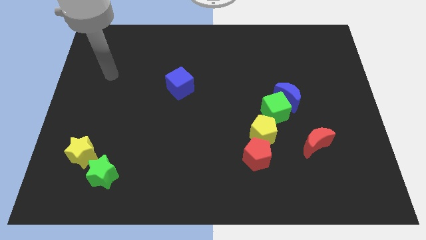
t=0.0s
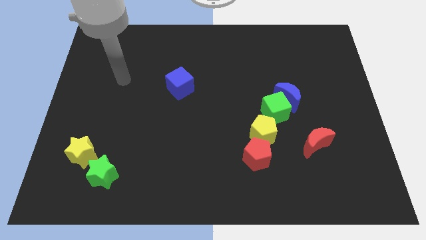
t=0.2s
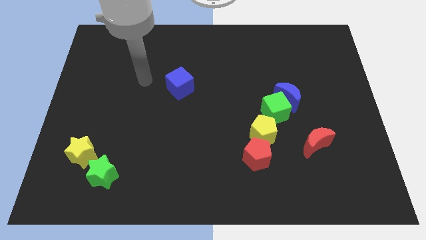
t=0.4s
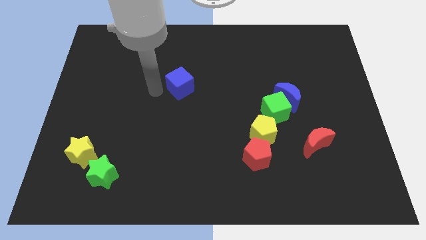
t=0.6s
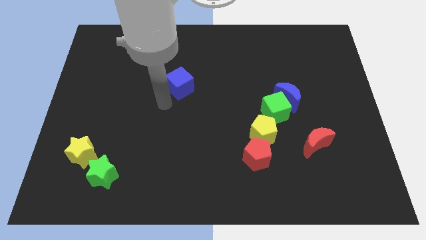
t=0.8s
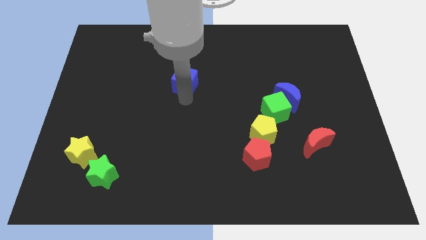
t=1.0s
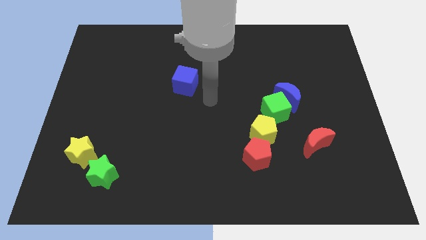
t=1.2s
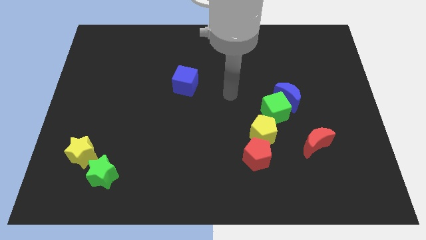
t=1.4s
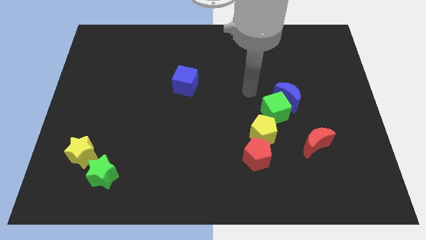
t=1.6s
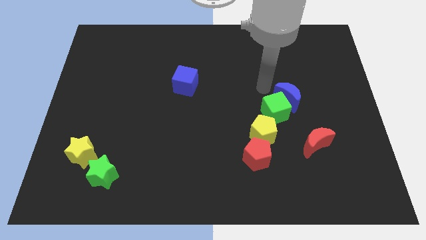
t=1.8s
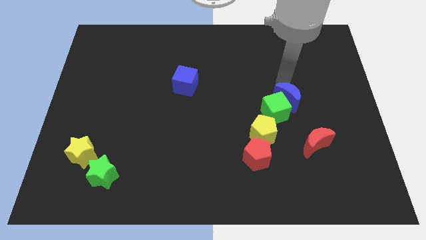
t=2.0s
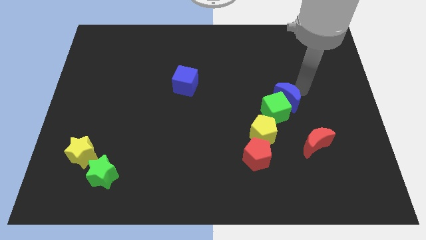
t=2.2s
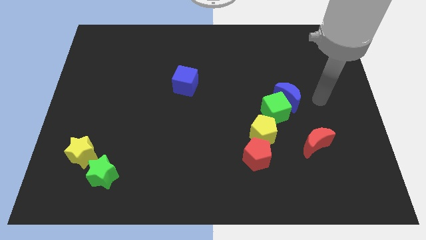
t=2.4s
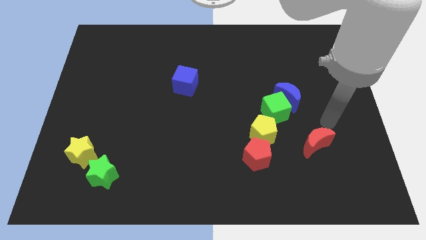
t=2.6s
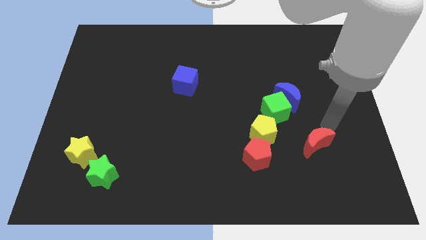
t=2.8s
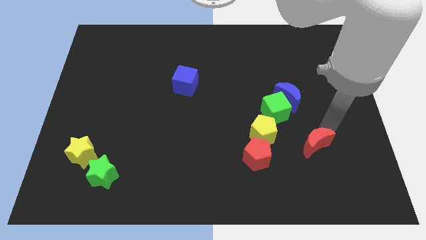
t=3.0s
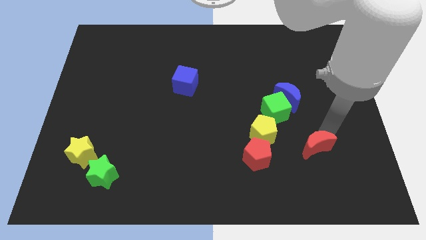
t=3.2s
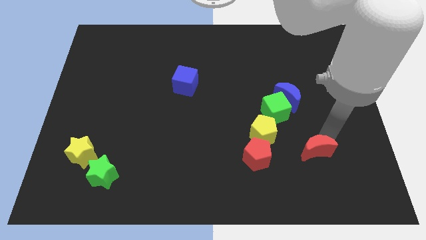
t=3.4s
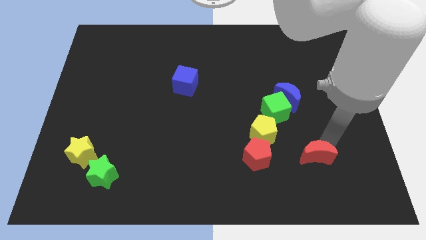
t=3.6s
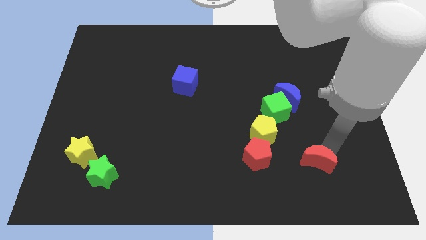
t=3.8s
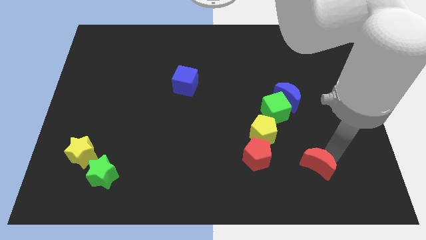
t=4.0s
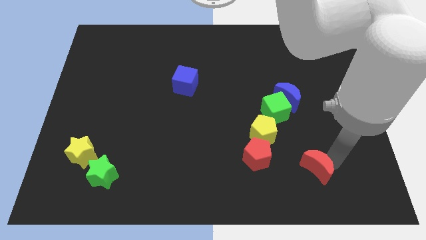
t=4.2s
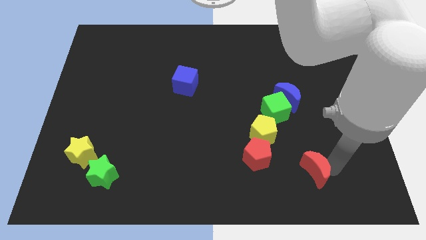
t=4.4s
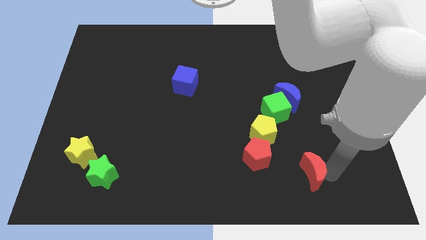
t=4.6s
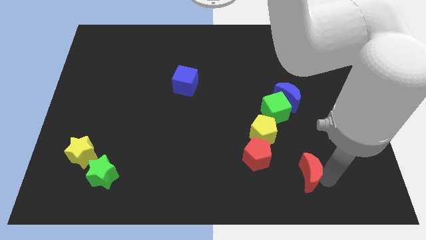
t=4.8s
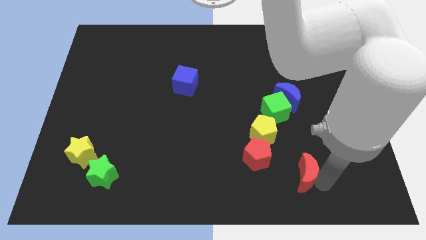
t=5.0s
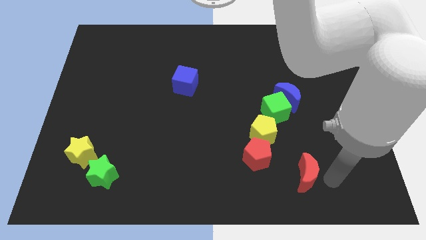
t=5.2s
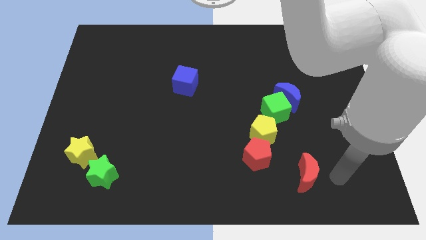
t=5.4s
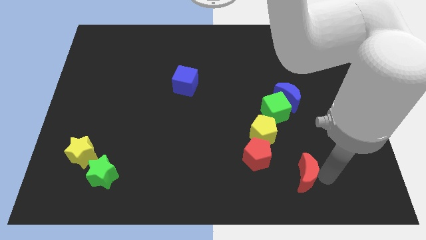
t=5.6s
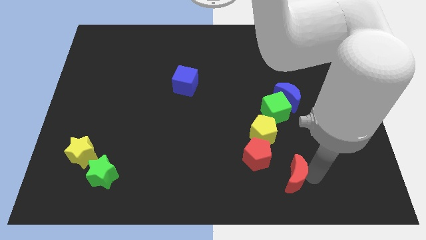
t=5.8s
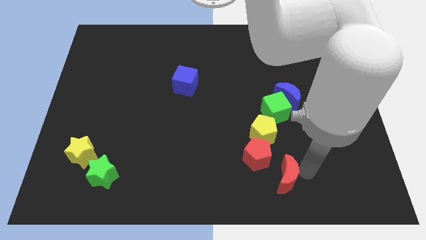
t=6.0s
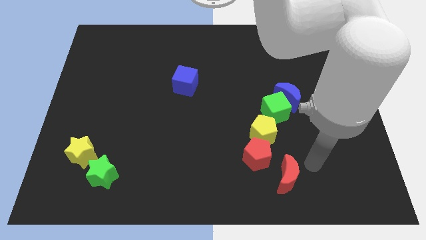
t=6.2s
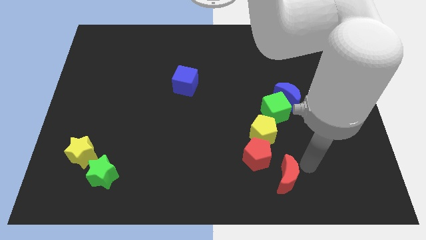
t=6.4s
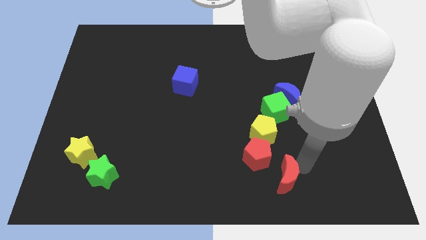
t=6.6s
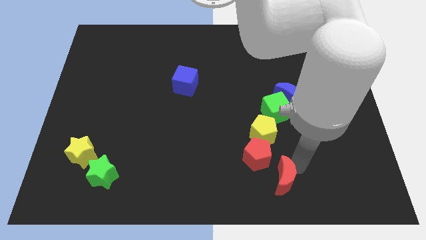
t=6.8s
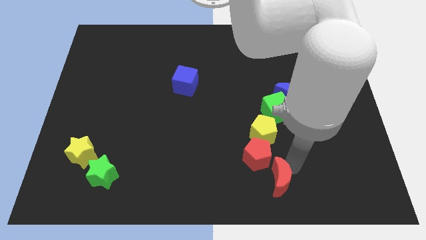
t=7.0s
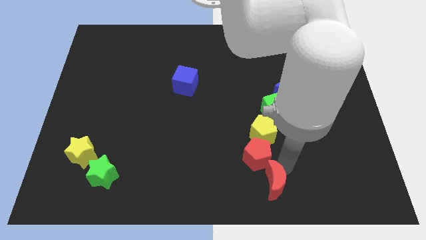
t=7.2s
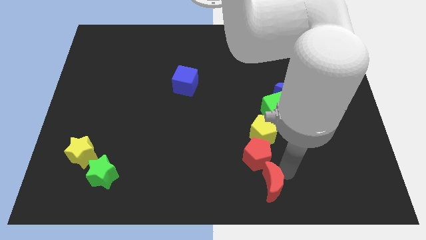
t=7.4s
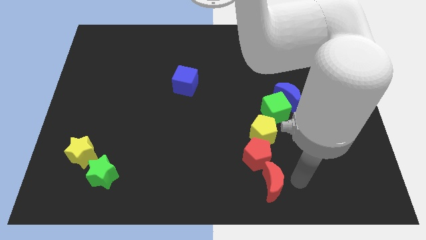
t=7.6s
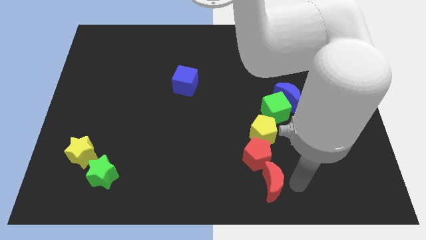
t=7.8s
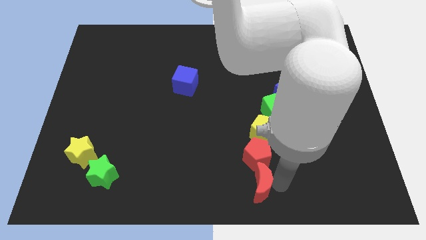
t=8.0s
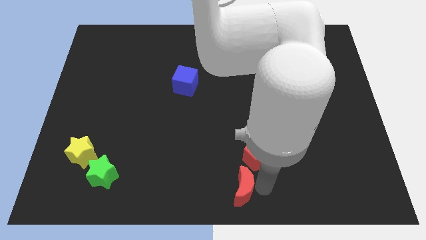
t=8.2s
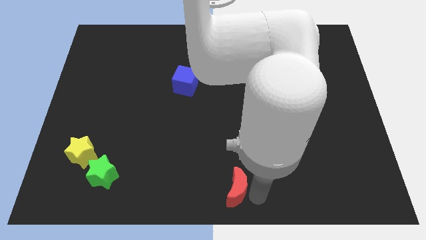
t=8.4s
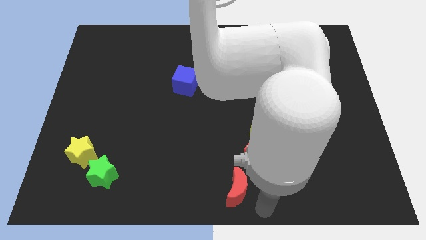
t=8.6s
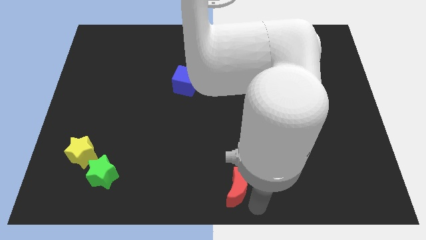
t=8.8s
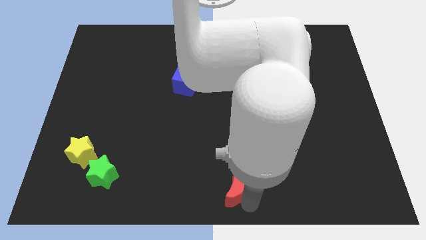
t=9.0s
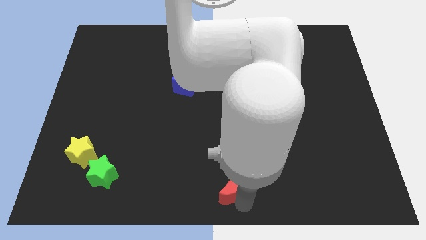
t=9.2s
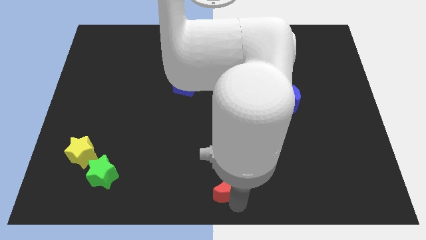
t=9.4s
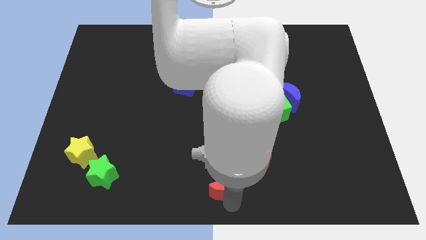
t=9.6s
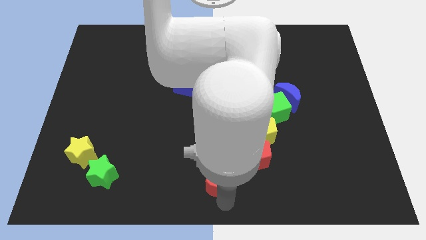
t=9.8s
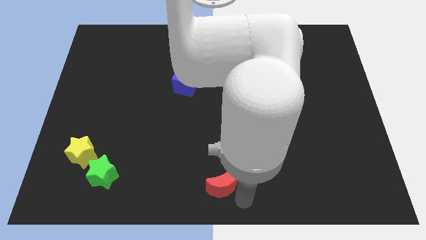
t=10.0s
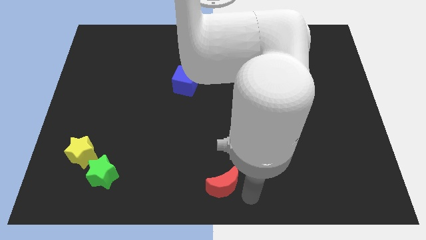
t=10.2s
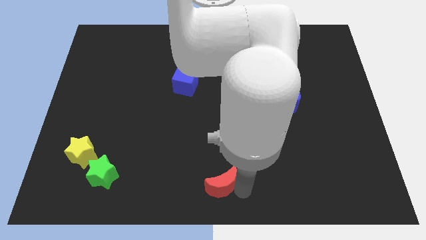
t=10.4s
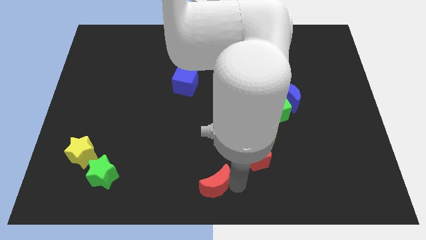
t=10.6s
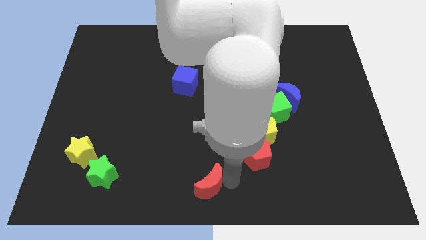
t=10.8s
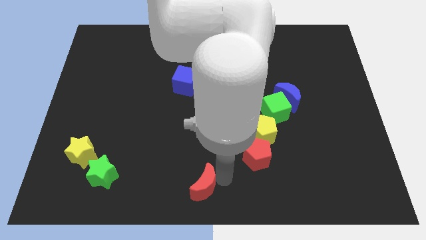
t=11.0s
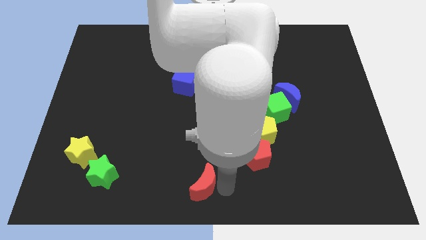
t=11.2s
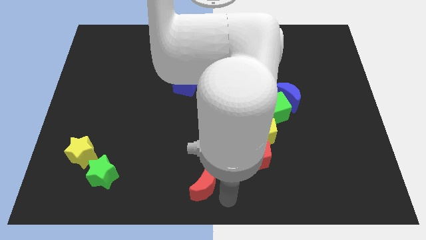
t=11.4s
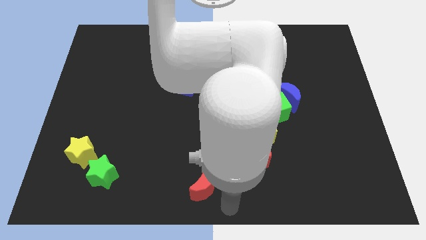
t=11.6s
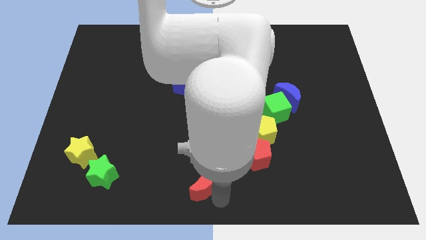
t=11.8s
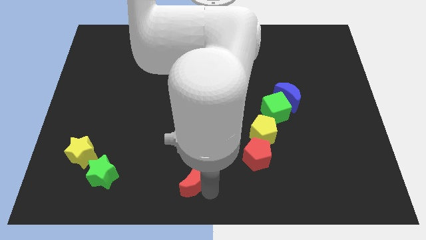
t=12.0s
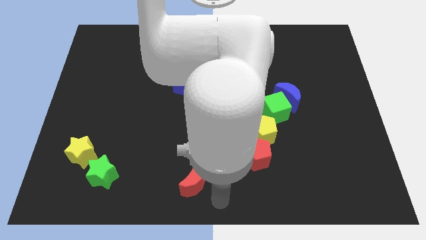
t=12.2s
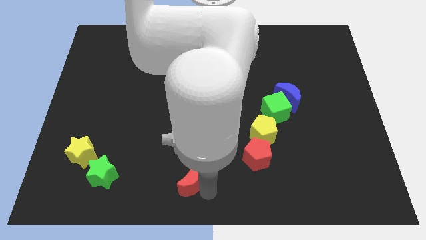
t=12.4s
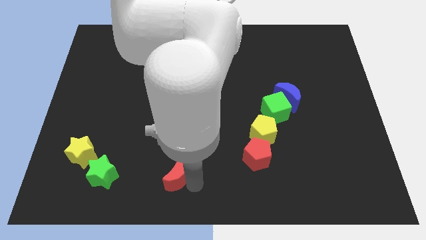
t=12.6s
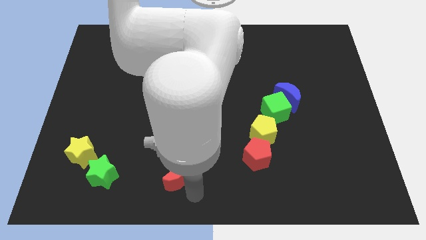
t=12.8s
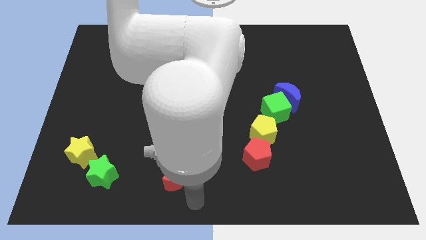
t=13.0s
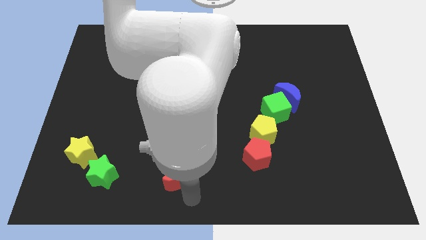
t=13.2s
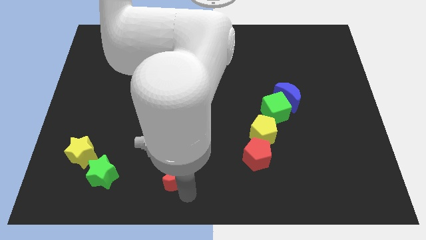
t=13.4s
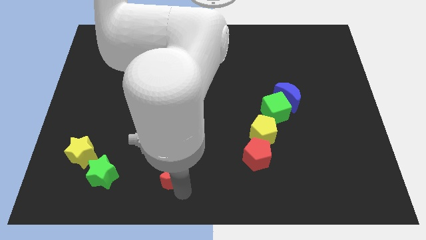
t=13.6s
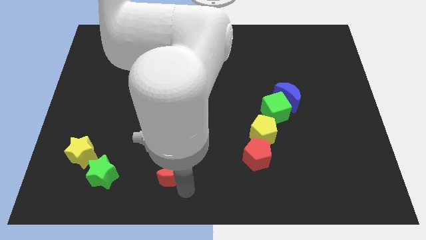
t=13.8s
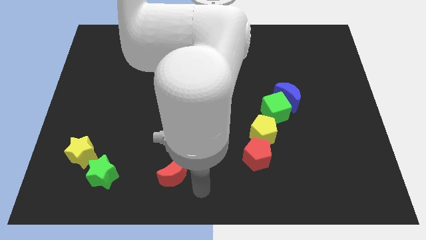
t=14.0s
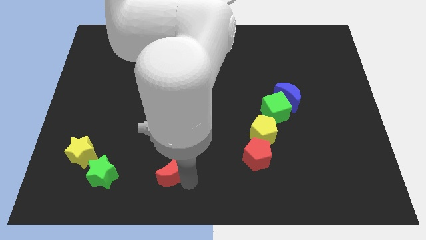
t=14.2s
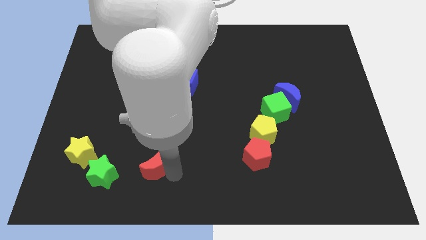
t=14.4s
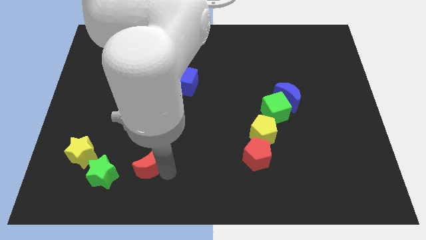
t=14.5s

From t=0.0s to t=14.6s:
move the red moon right of the yellow star

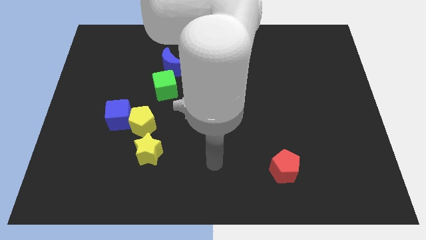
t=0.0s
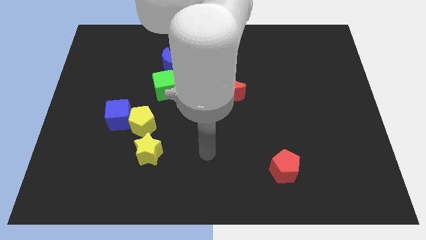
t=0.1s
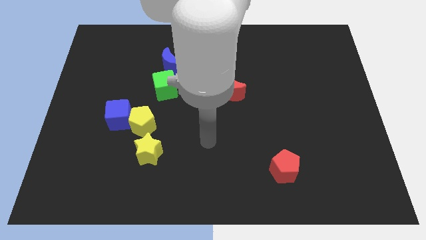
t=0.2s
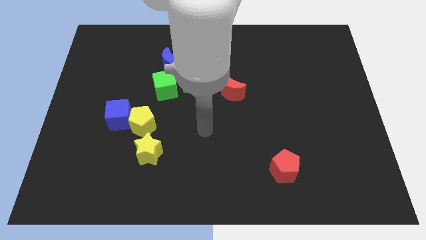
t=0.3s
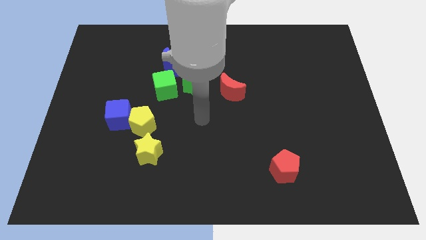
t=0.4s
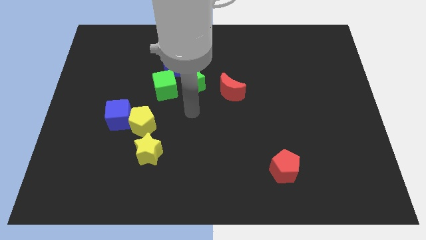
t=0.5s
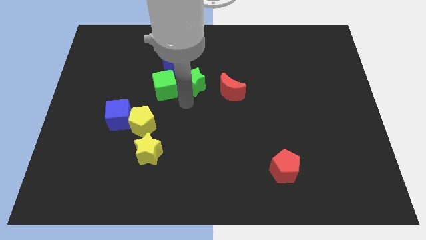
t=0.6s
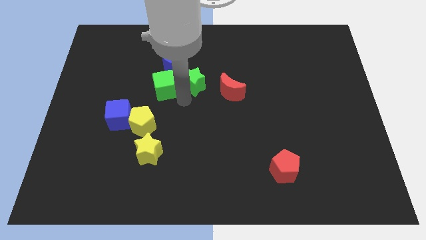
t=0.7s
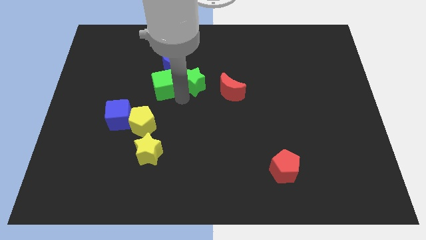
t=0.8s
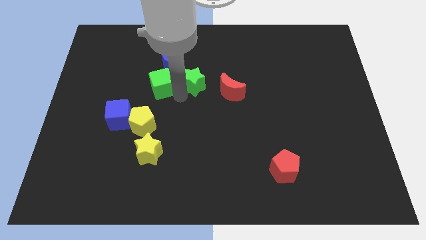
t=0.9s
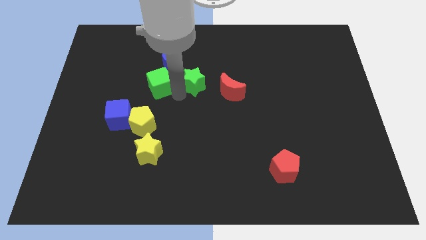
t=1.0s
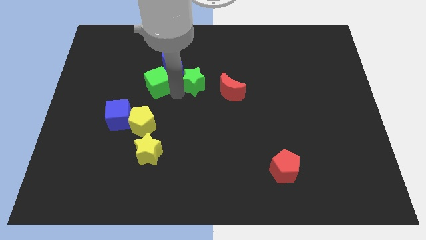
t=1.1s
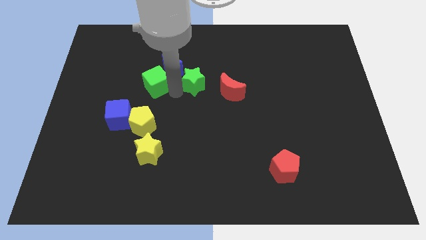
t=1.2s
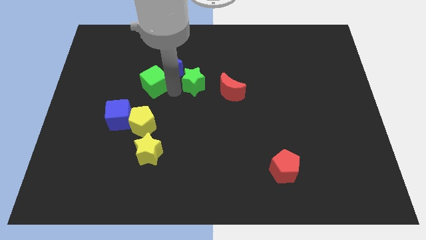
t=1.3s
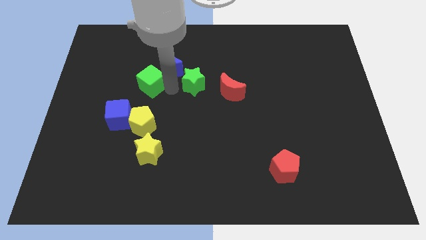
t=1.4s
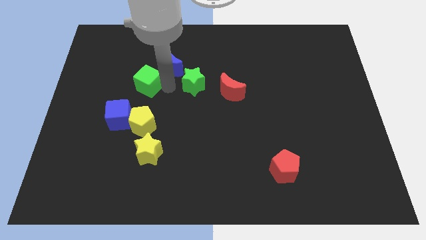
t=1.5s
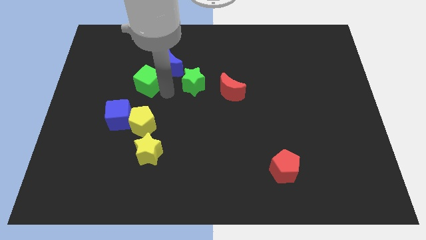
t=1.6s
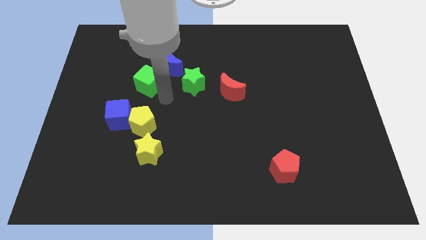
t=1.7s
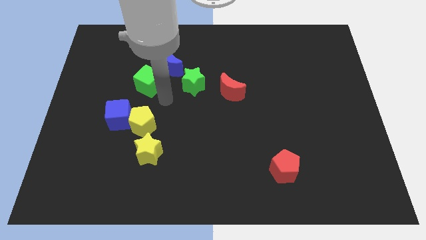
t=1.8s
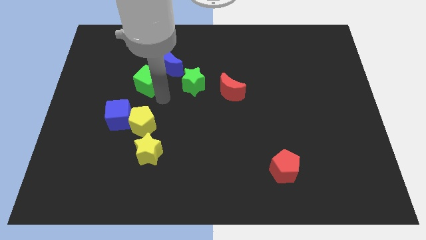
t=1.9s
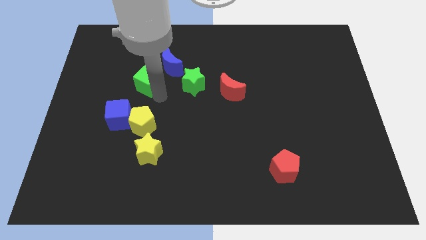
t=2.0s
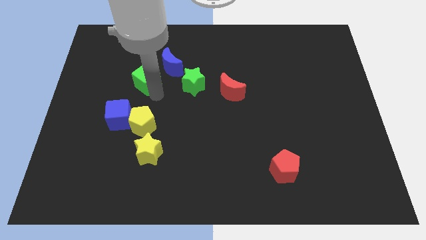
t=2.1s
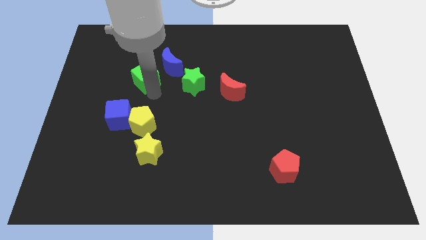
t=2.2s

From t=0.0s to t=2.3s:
move the green cube just left of the blue moon
